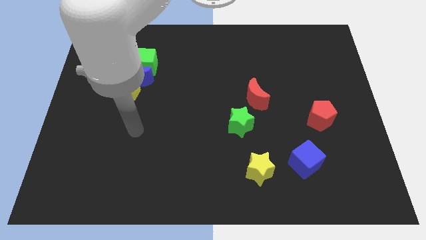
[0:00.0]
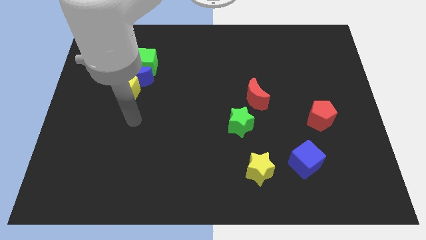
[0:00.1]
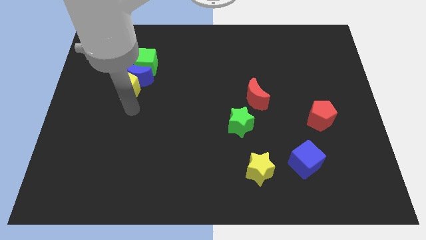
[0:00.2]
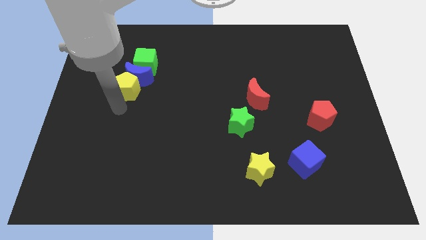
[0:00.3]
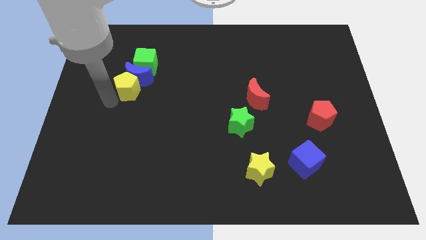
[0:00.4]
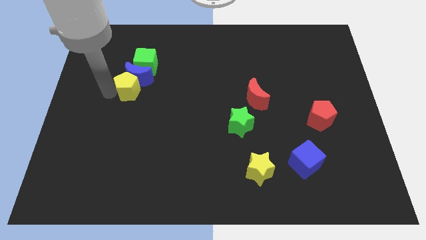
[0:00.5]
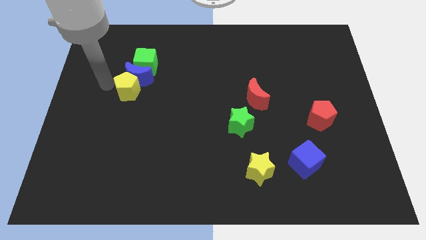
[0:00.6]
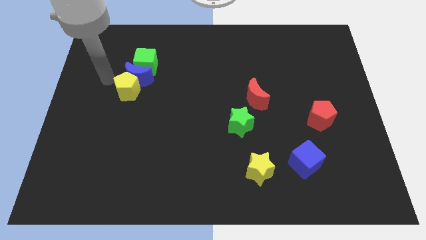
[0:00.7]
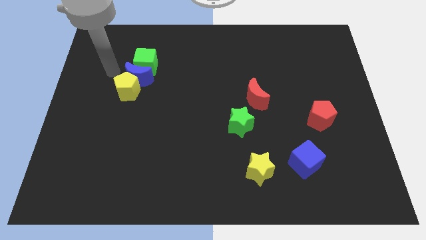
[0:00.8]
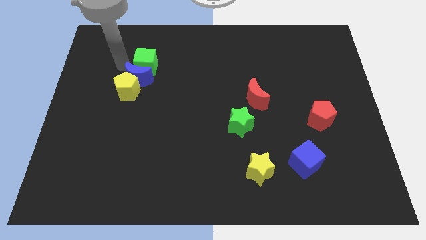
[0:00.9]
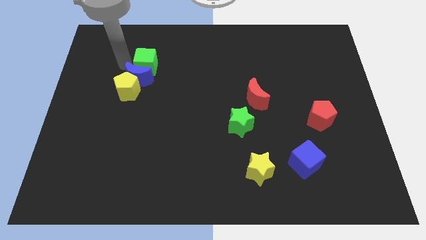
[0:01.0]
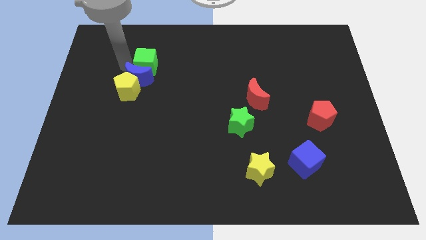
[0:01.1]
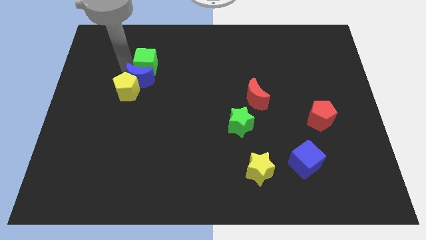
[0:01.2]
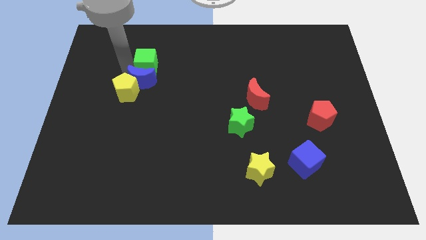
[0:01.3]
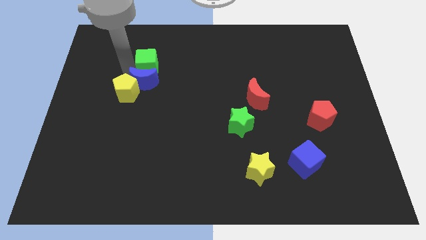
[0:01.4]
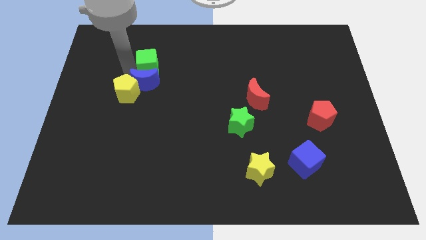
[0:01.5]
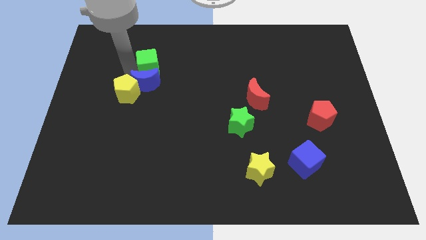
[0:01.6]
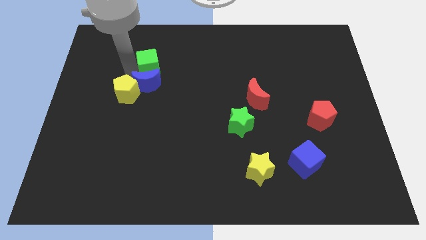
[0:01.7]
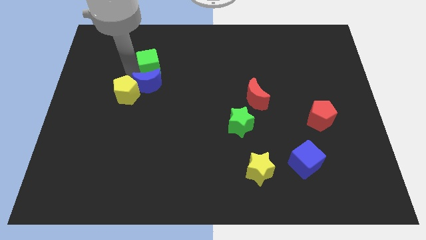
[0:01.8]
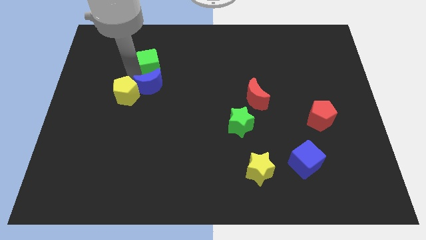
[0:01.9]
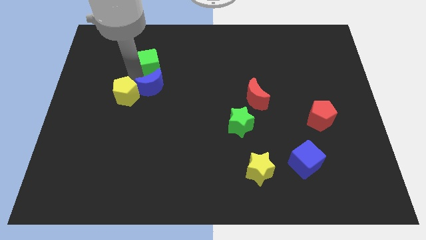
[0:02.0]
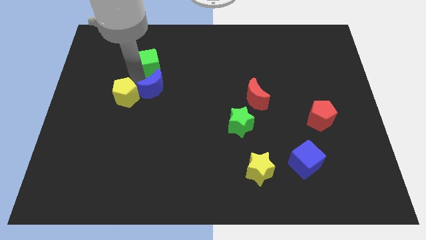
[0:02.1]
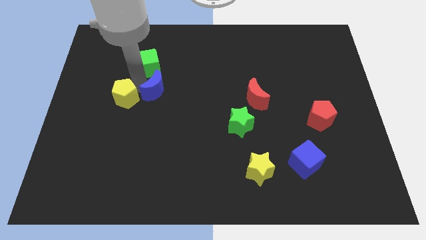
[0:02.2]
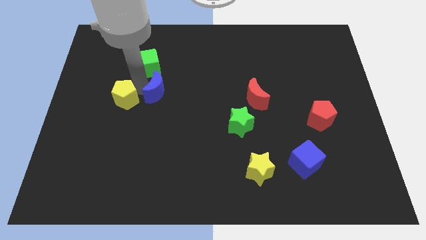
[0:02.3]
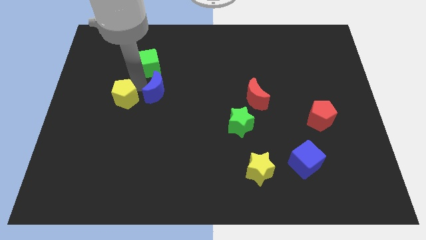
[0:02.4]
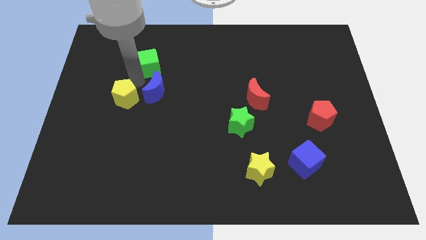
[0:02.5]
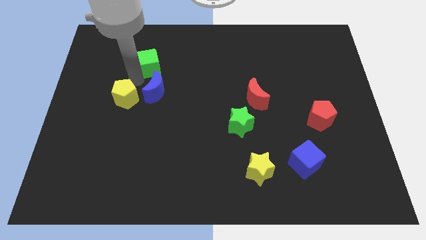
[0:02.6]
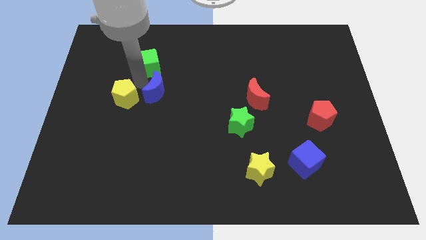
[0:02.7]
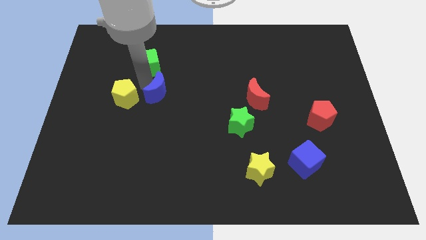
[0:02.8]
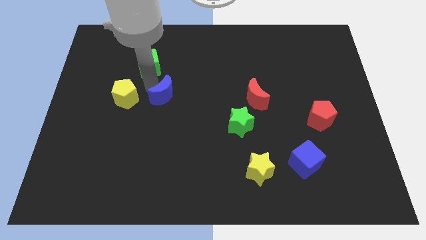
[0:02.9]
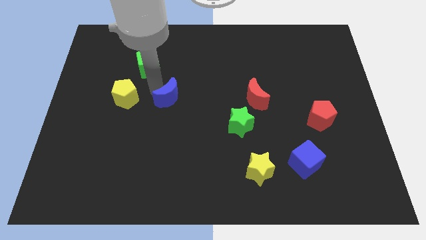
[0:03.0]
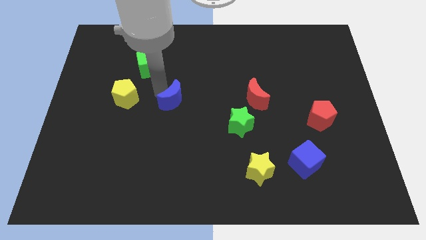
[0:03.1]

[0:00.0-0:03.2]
pull the blue moon apart from the yellow pentagon and green cube

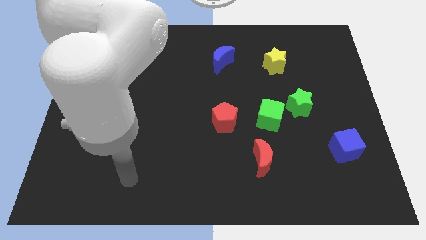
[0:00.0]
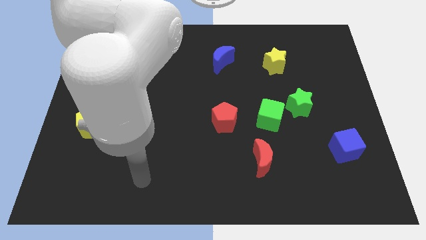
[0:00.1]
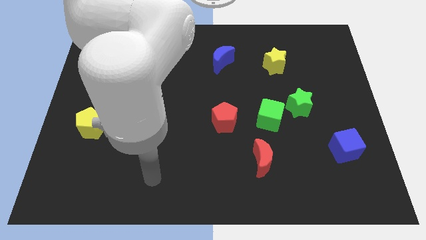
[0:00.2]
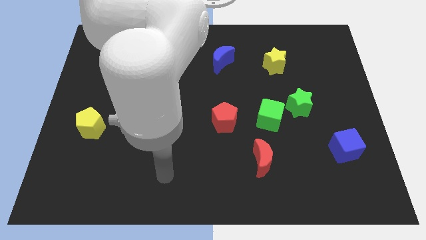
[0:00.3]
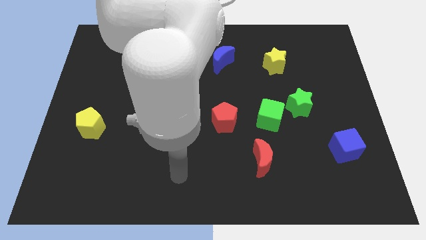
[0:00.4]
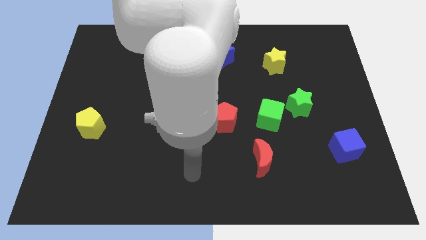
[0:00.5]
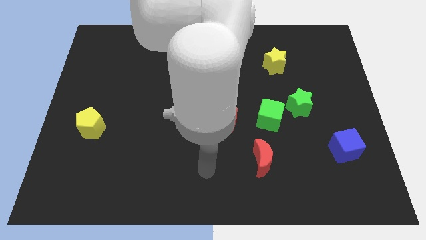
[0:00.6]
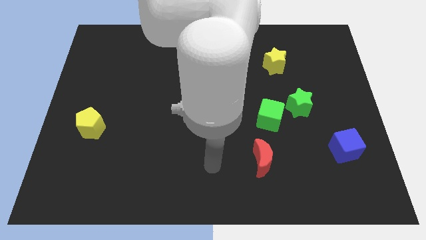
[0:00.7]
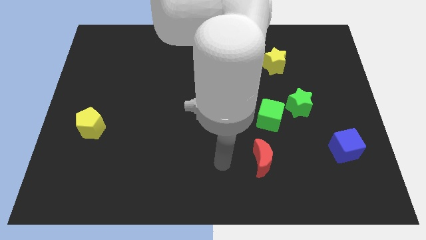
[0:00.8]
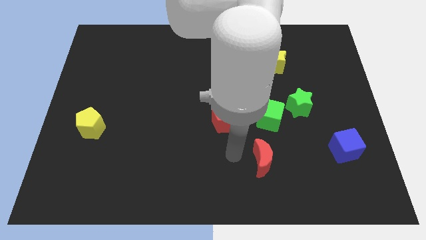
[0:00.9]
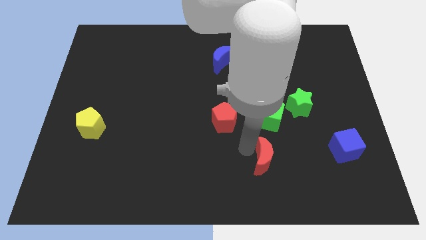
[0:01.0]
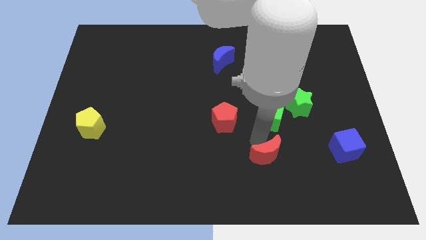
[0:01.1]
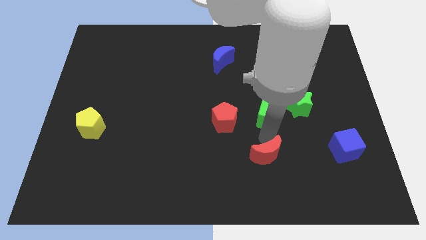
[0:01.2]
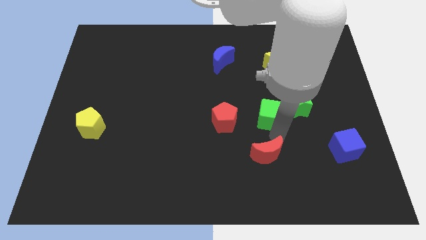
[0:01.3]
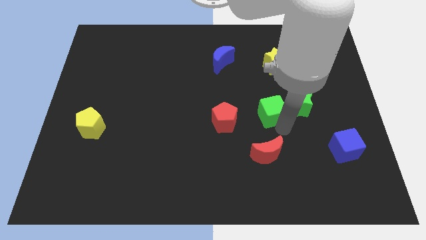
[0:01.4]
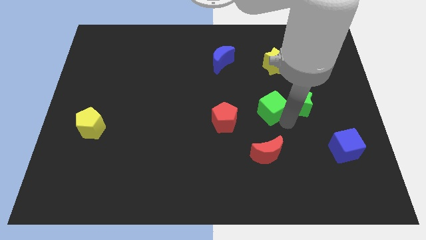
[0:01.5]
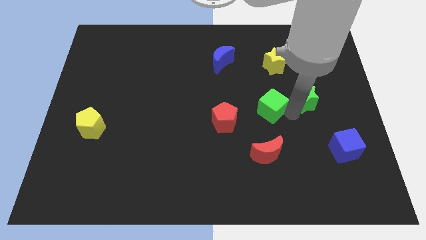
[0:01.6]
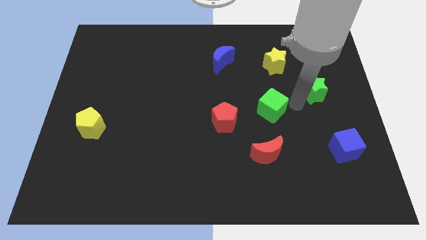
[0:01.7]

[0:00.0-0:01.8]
separate the green cube from the green star

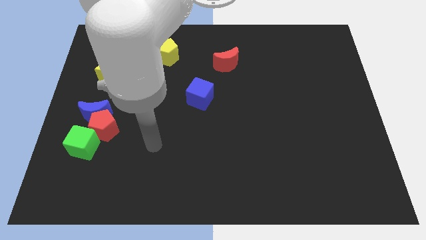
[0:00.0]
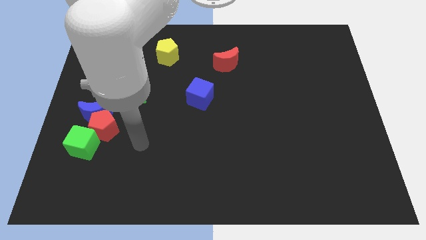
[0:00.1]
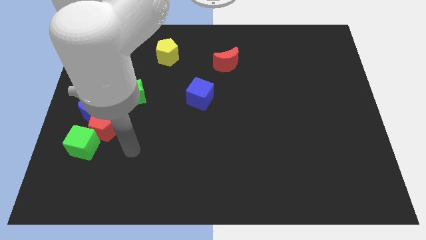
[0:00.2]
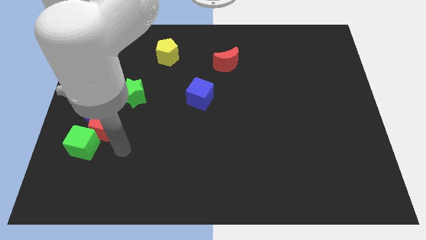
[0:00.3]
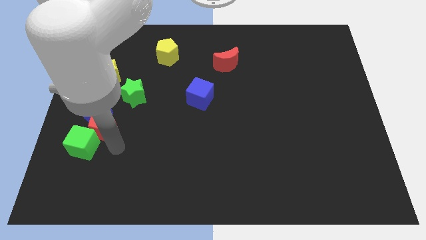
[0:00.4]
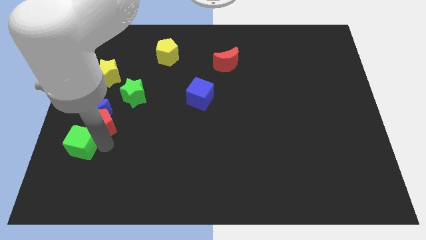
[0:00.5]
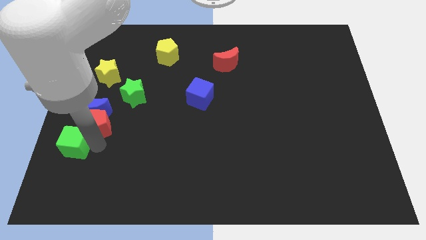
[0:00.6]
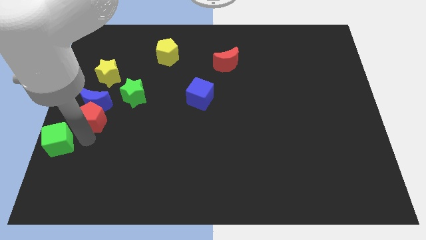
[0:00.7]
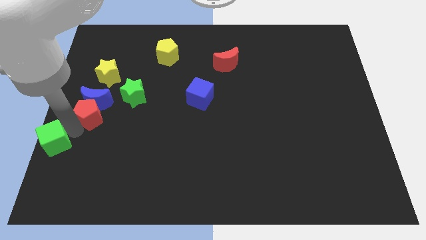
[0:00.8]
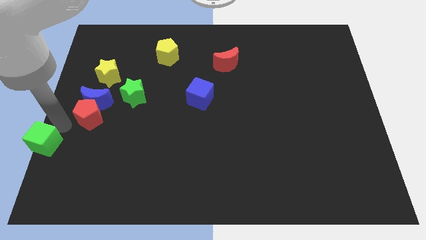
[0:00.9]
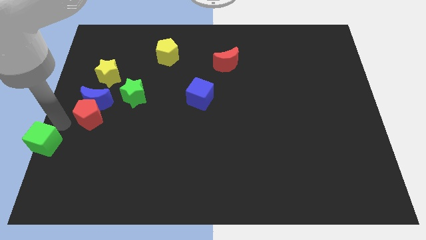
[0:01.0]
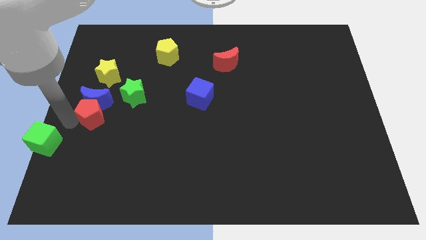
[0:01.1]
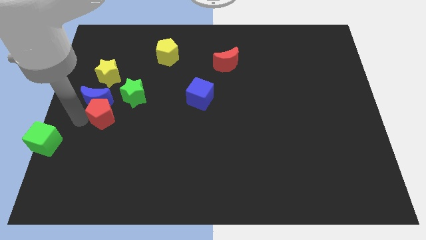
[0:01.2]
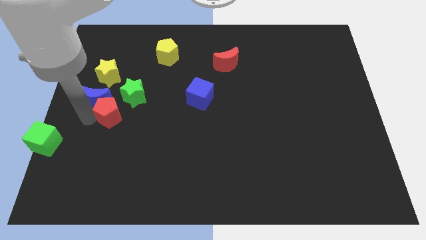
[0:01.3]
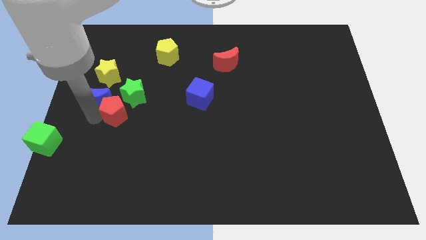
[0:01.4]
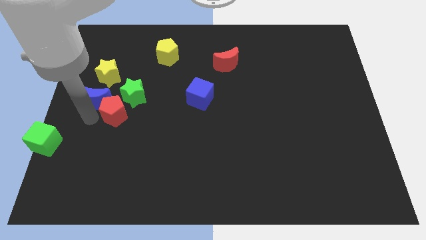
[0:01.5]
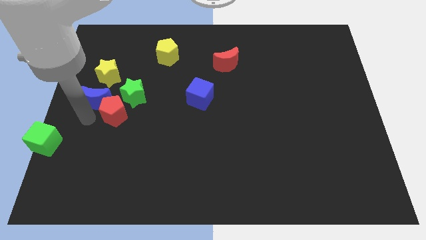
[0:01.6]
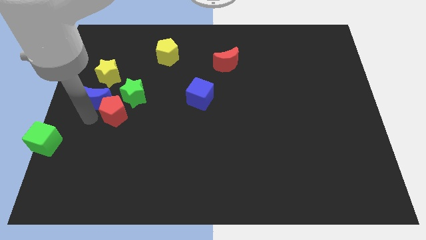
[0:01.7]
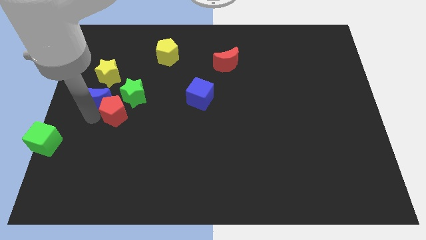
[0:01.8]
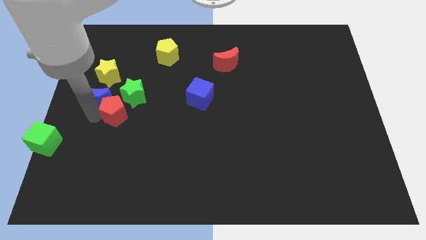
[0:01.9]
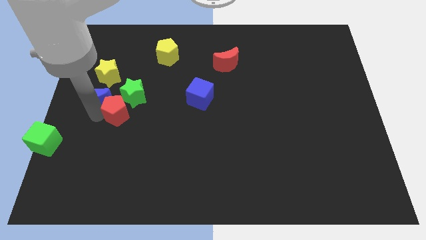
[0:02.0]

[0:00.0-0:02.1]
move the red pentagon away from the blue moon and green cube

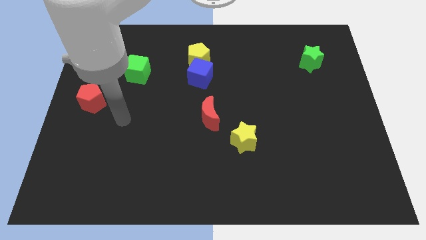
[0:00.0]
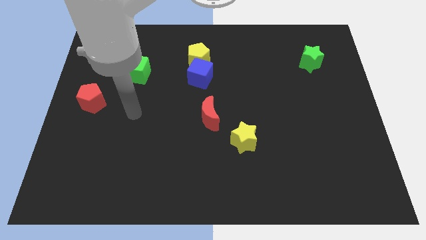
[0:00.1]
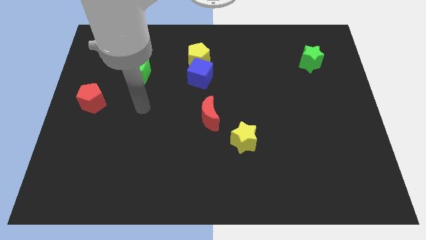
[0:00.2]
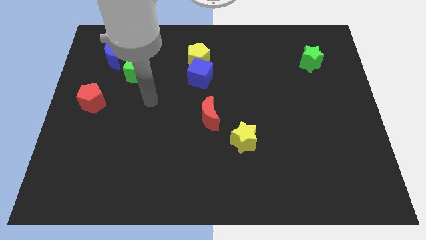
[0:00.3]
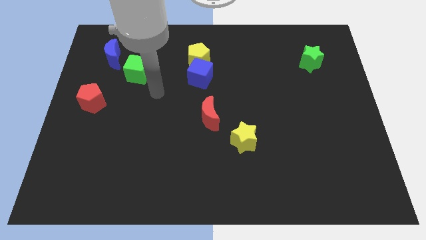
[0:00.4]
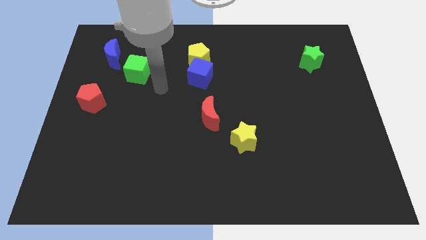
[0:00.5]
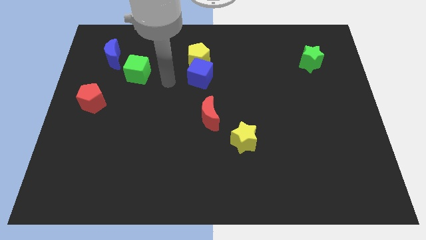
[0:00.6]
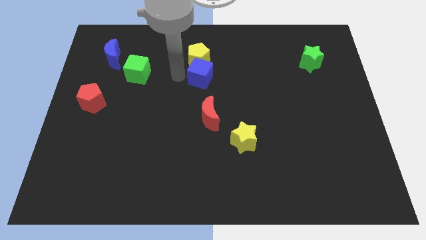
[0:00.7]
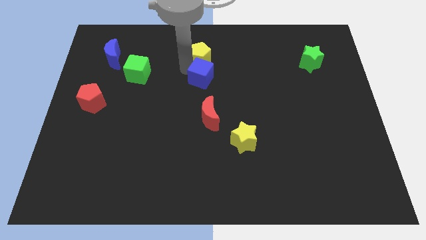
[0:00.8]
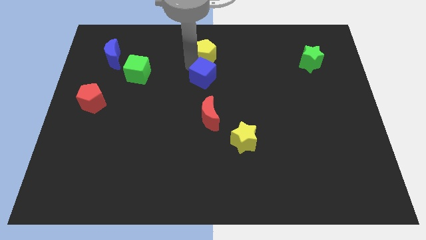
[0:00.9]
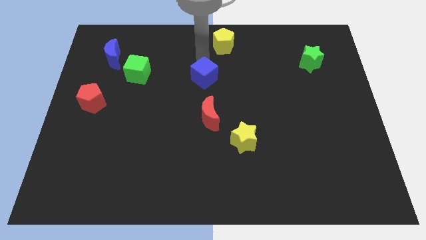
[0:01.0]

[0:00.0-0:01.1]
pull the blue cube apart from the yellow pentagon

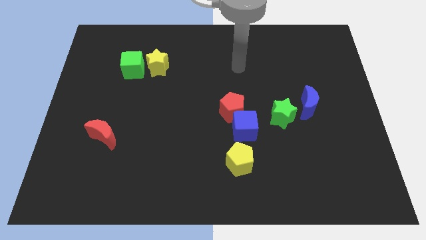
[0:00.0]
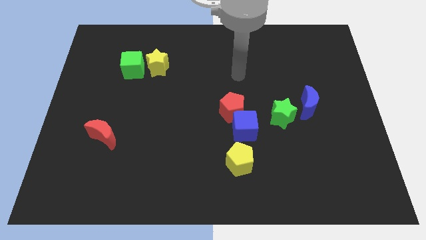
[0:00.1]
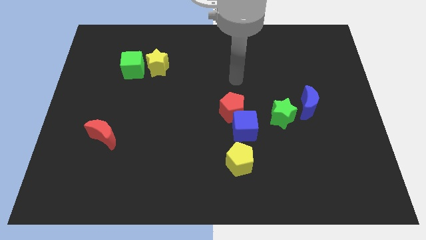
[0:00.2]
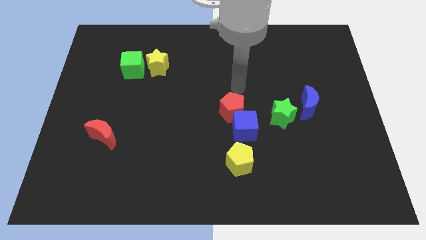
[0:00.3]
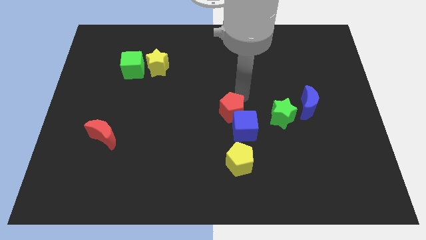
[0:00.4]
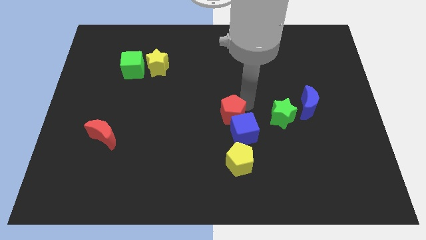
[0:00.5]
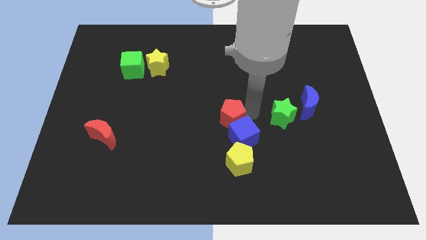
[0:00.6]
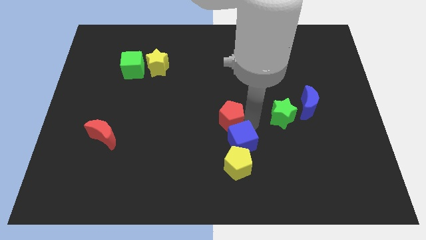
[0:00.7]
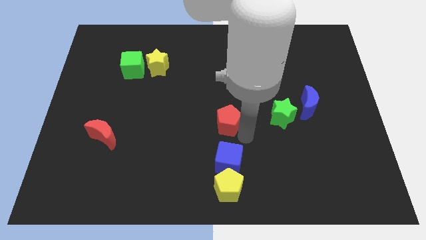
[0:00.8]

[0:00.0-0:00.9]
move the red pentagon away from the blue cube

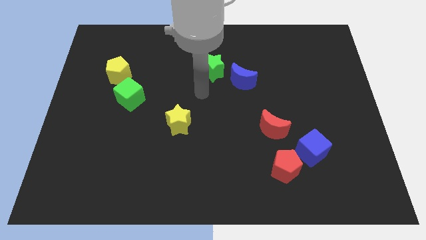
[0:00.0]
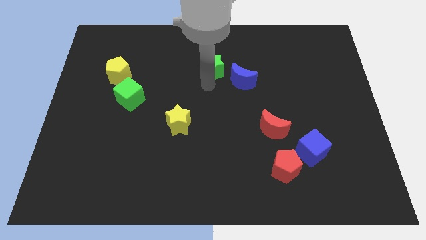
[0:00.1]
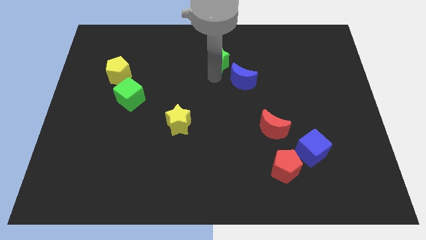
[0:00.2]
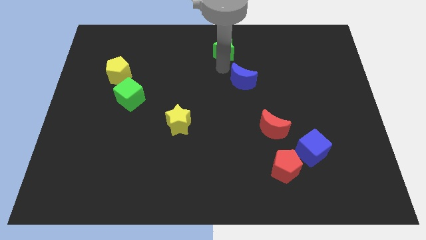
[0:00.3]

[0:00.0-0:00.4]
pull the blue moon apart from the green star

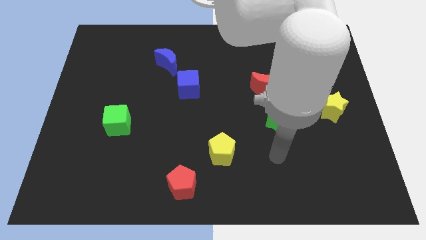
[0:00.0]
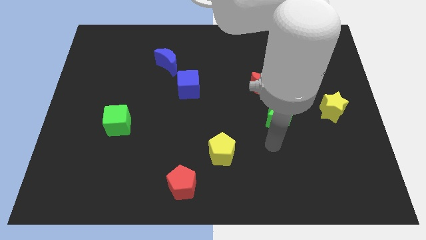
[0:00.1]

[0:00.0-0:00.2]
pull the blue moon apart from the blue cube
